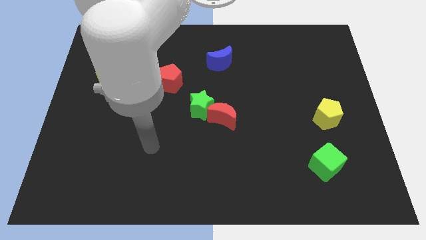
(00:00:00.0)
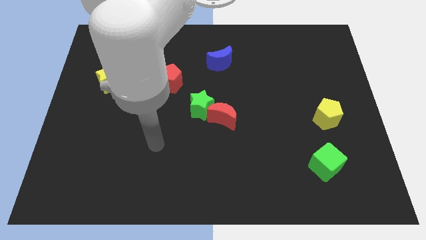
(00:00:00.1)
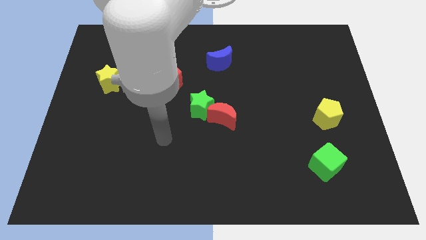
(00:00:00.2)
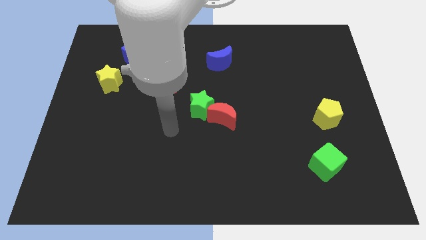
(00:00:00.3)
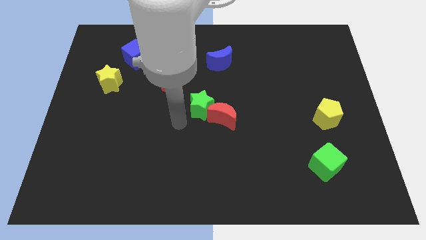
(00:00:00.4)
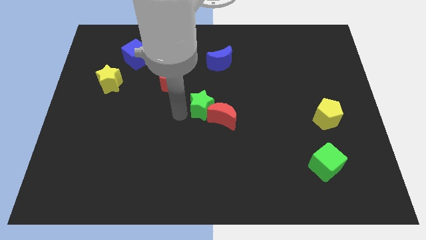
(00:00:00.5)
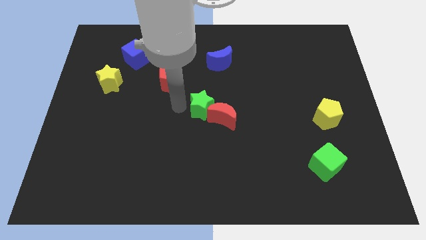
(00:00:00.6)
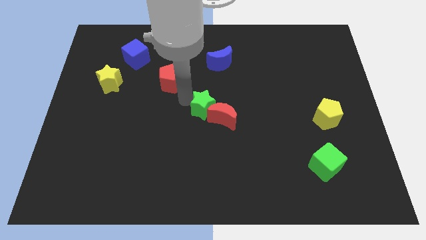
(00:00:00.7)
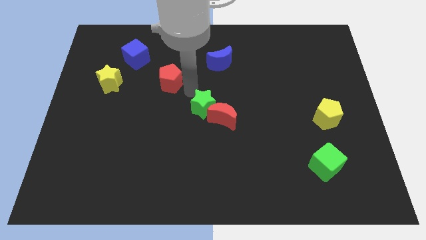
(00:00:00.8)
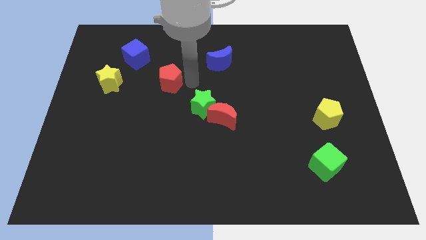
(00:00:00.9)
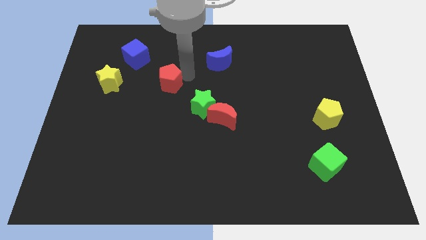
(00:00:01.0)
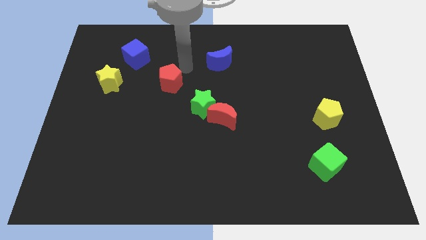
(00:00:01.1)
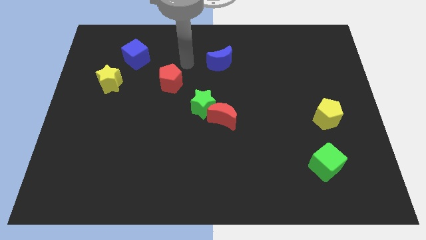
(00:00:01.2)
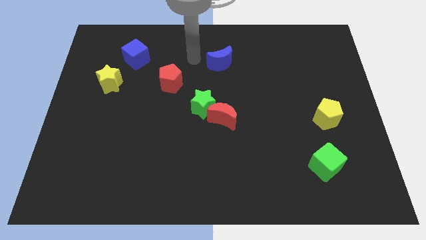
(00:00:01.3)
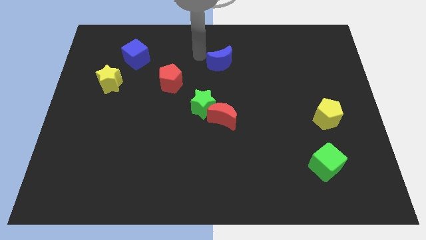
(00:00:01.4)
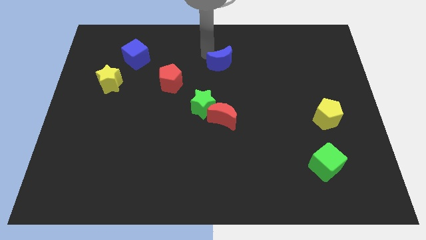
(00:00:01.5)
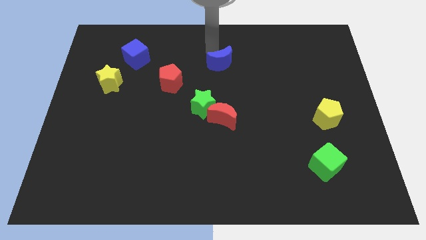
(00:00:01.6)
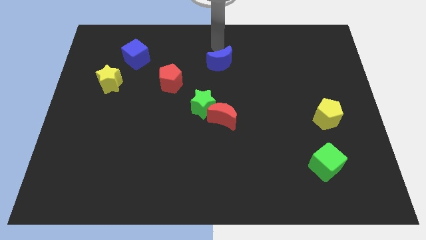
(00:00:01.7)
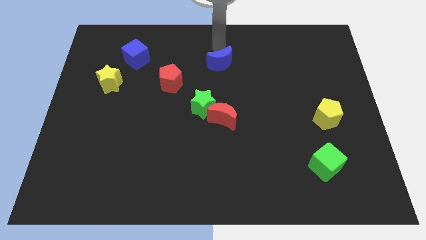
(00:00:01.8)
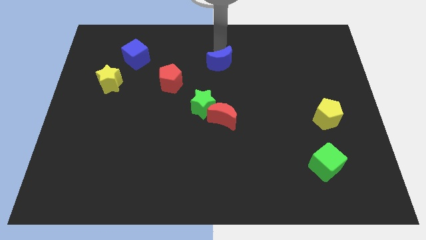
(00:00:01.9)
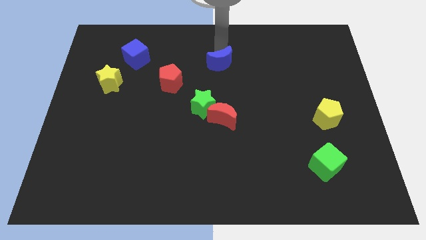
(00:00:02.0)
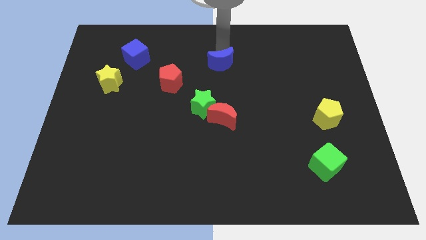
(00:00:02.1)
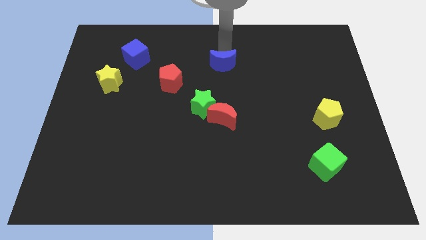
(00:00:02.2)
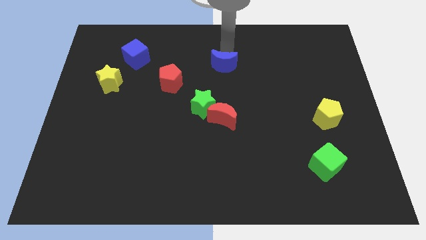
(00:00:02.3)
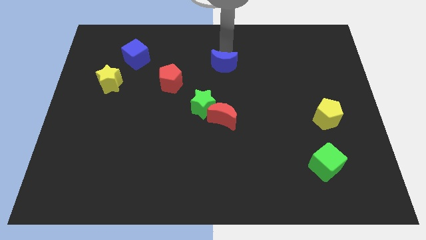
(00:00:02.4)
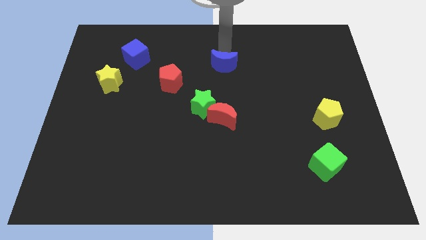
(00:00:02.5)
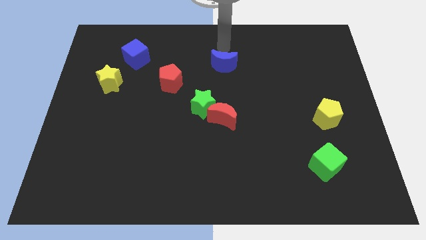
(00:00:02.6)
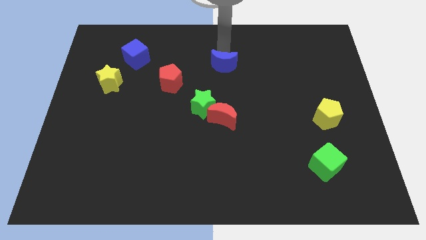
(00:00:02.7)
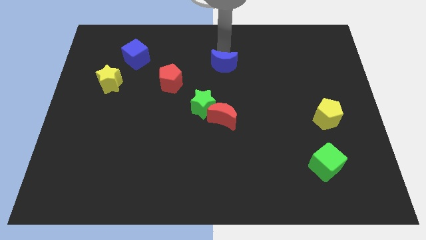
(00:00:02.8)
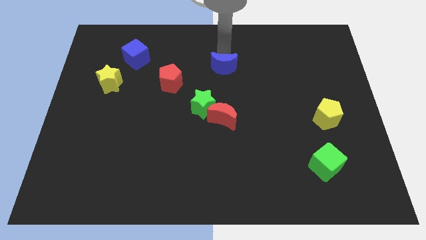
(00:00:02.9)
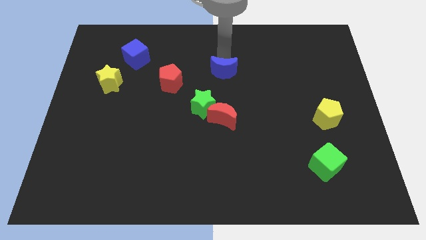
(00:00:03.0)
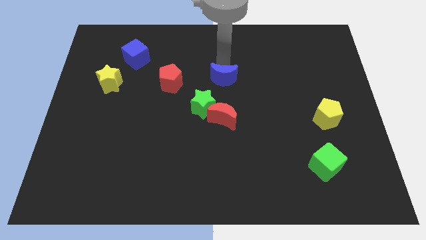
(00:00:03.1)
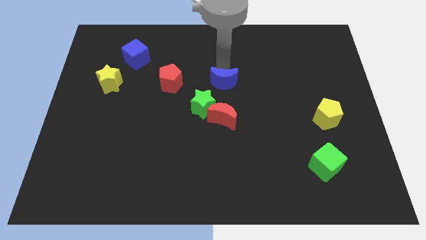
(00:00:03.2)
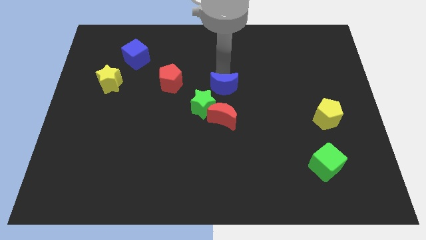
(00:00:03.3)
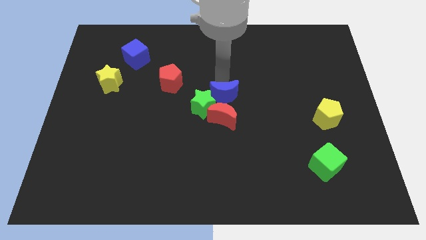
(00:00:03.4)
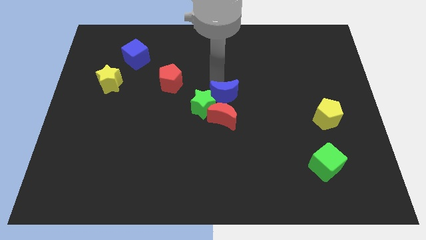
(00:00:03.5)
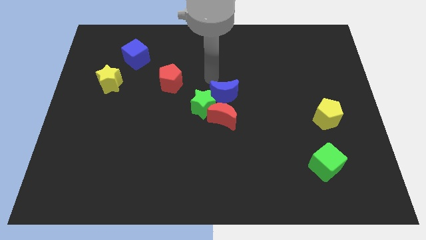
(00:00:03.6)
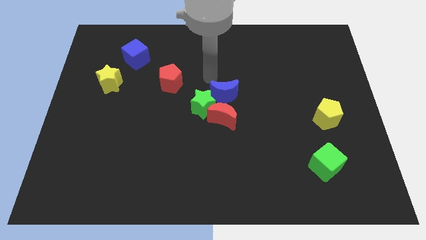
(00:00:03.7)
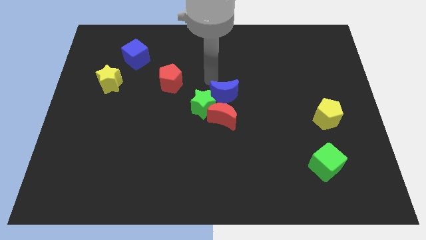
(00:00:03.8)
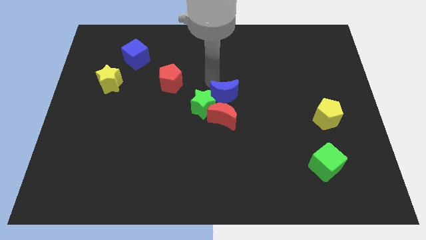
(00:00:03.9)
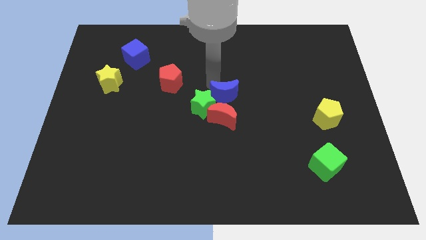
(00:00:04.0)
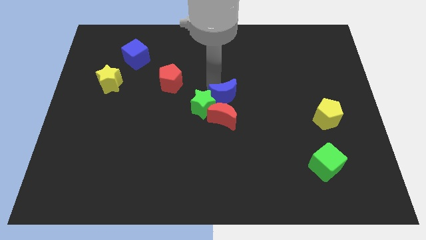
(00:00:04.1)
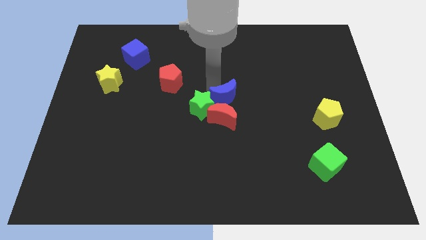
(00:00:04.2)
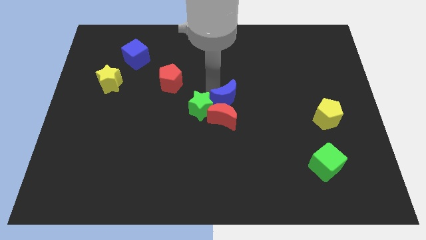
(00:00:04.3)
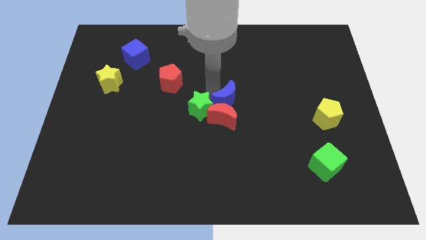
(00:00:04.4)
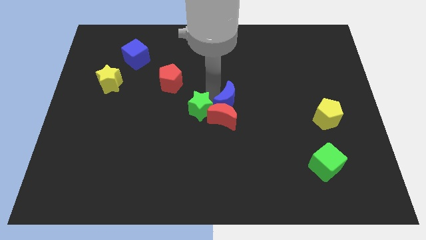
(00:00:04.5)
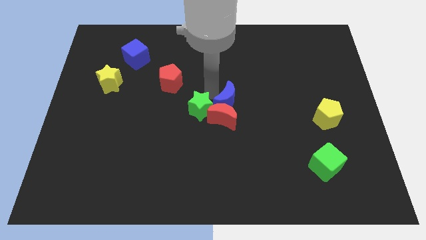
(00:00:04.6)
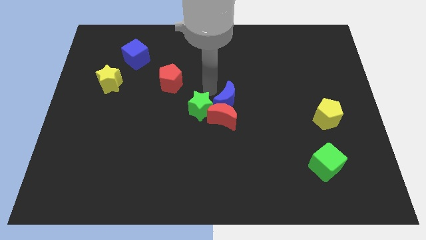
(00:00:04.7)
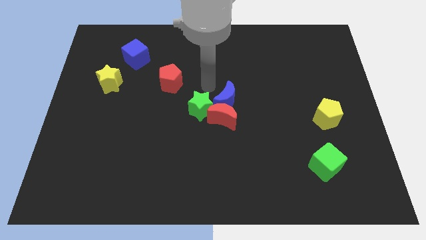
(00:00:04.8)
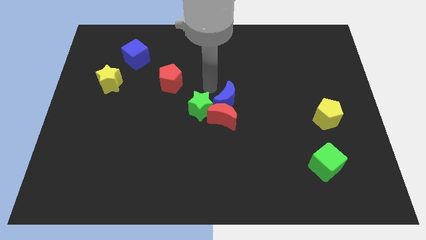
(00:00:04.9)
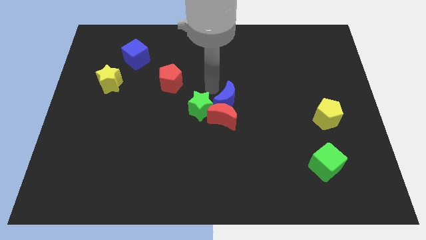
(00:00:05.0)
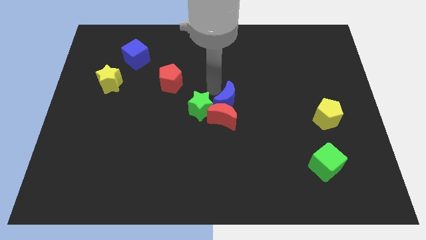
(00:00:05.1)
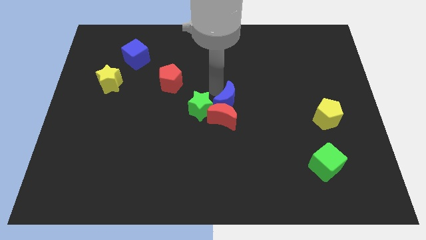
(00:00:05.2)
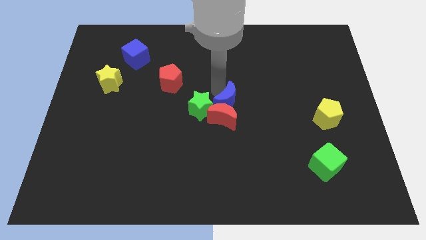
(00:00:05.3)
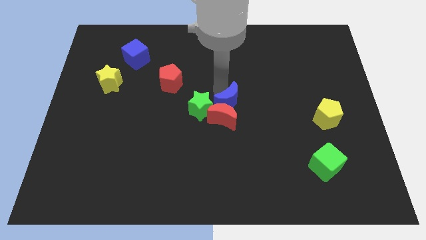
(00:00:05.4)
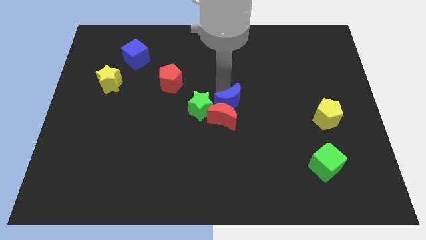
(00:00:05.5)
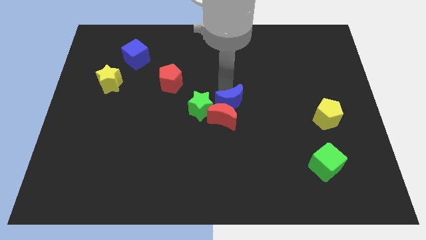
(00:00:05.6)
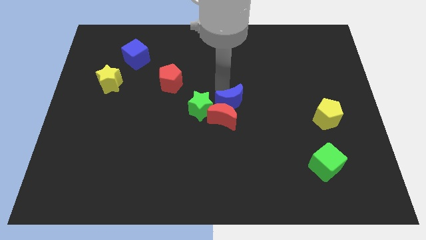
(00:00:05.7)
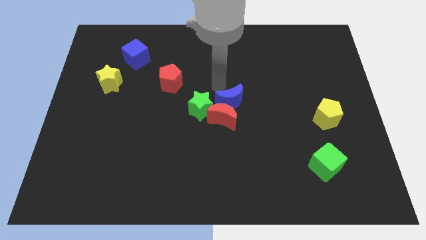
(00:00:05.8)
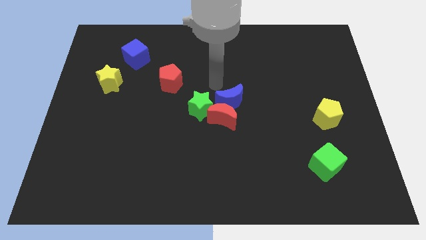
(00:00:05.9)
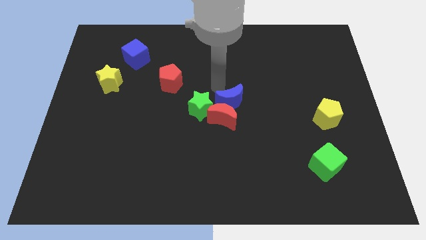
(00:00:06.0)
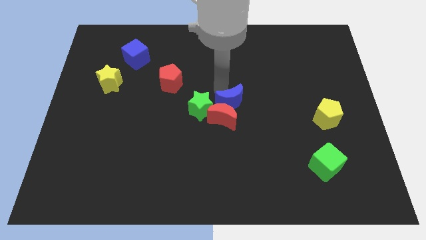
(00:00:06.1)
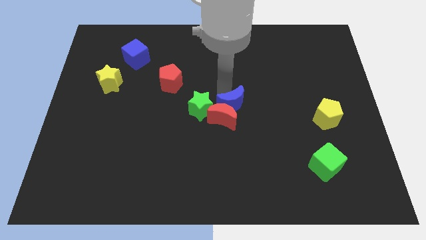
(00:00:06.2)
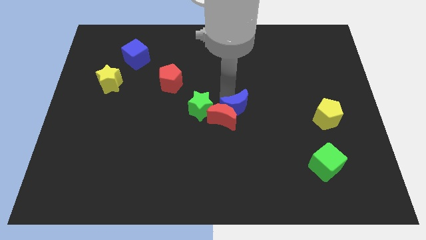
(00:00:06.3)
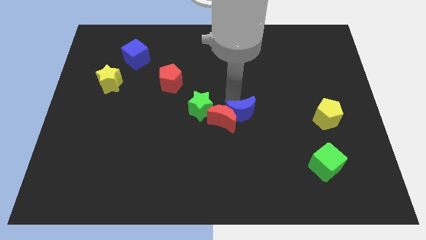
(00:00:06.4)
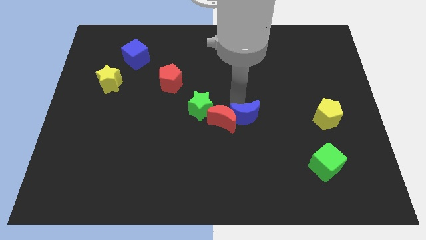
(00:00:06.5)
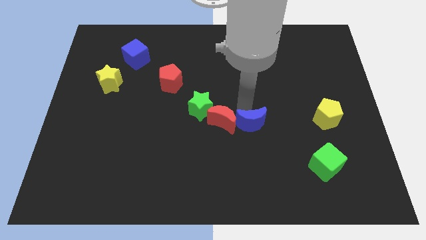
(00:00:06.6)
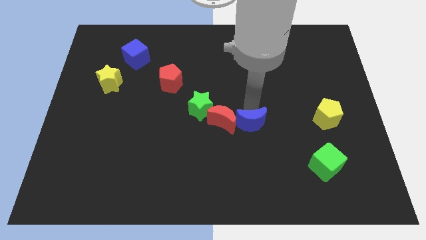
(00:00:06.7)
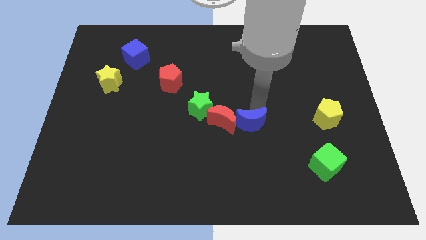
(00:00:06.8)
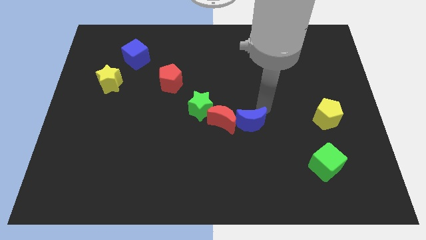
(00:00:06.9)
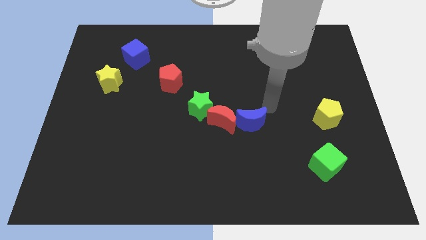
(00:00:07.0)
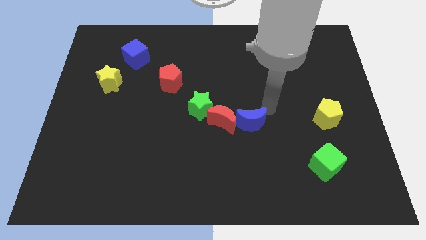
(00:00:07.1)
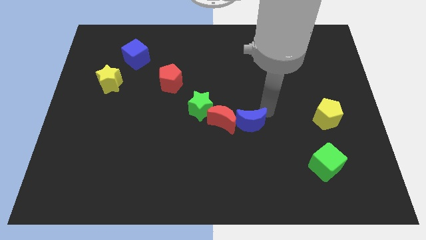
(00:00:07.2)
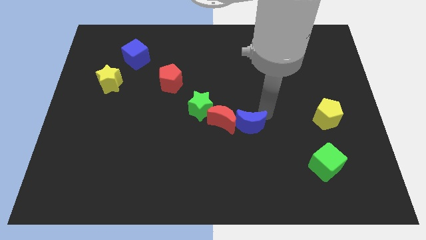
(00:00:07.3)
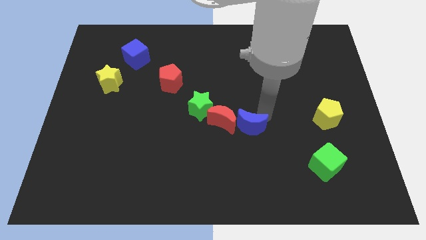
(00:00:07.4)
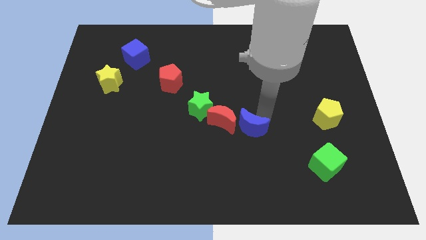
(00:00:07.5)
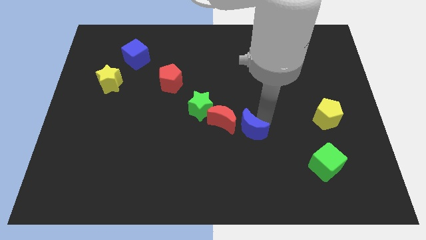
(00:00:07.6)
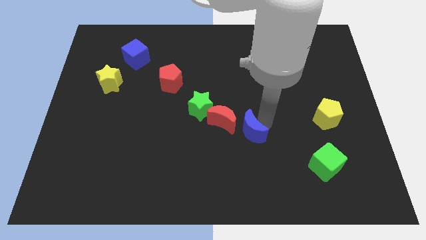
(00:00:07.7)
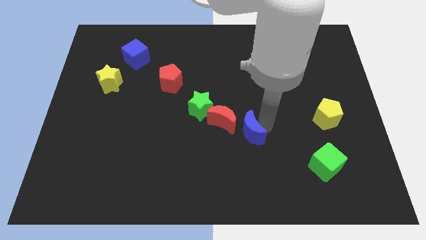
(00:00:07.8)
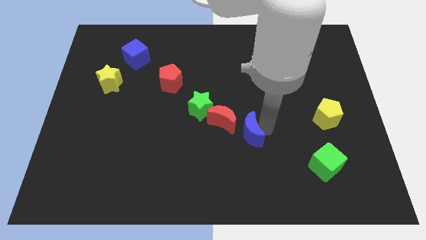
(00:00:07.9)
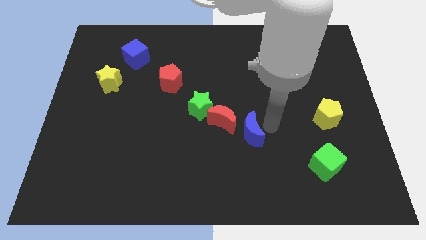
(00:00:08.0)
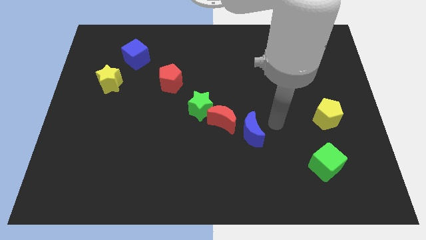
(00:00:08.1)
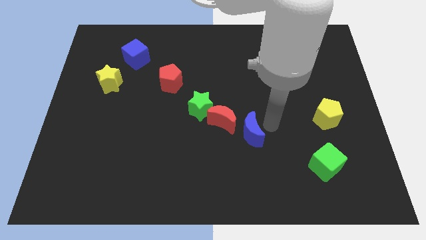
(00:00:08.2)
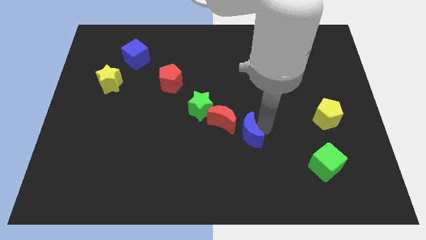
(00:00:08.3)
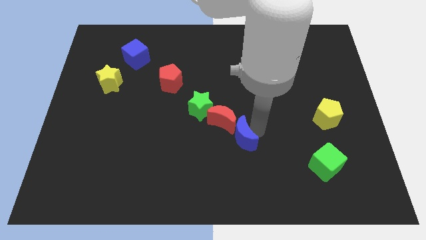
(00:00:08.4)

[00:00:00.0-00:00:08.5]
push the blue moon below the red moon
